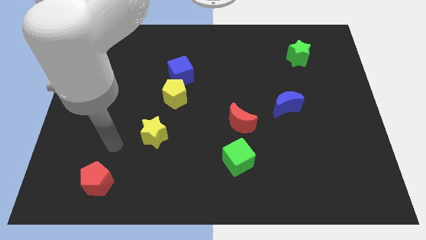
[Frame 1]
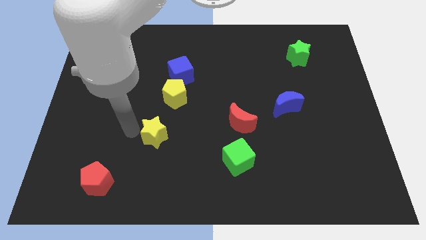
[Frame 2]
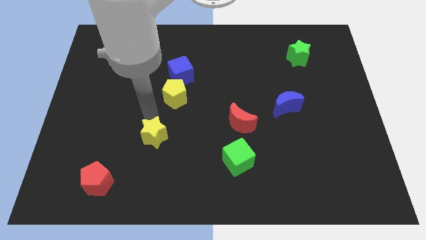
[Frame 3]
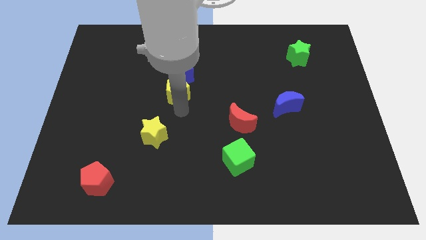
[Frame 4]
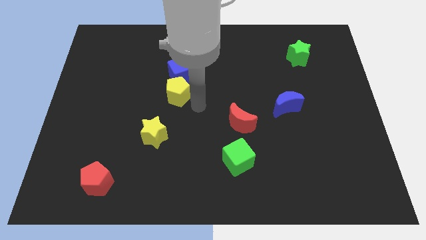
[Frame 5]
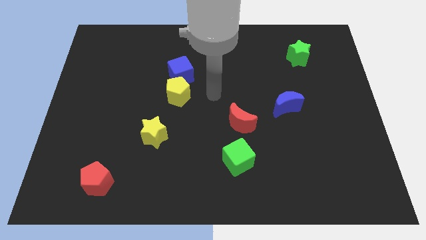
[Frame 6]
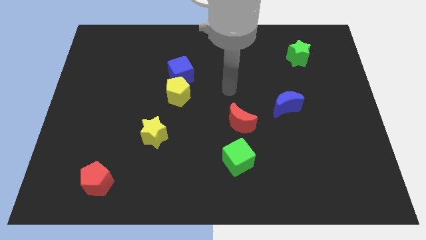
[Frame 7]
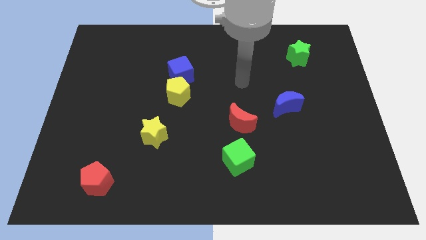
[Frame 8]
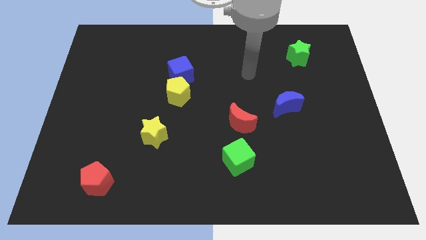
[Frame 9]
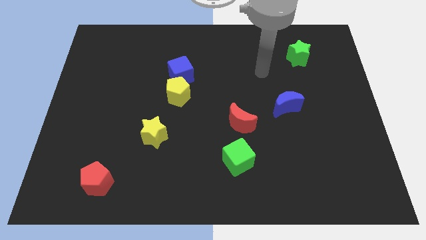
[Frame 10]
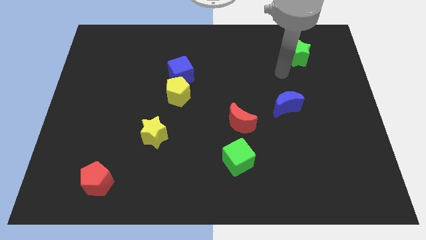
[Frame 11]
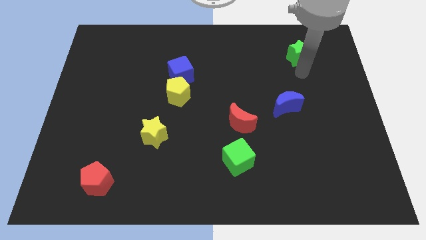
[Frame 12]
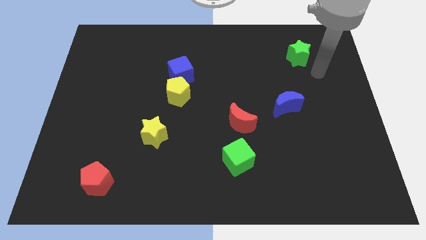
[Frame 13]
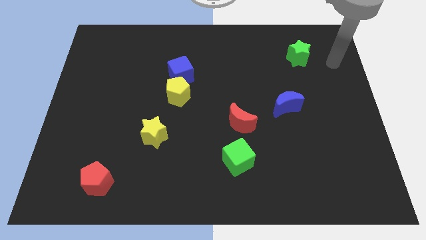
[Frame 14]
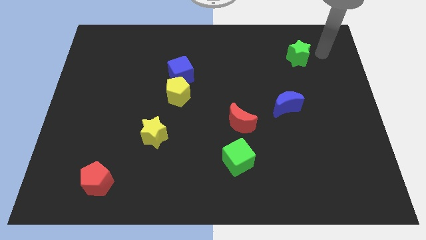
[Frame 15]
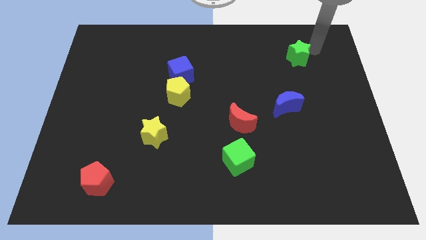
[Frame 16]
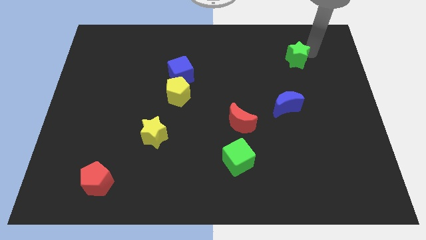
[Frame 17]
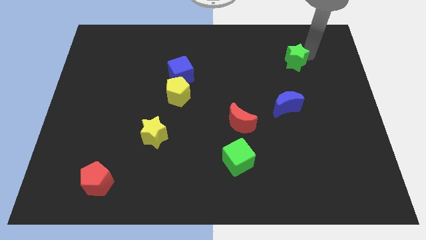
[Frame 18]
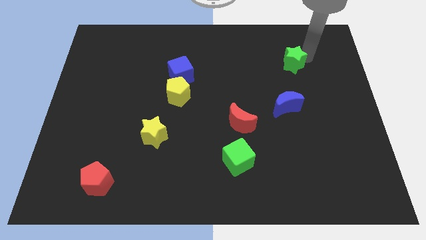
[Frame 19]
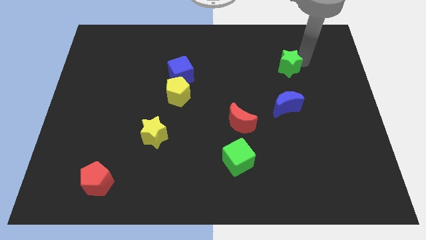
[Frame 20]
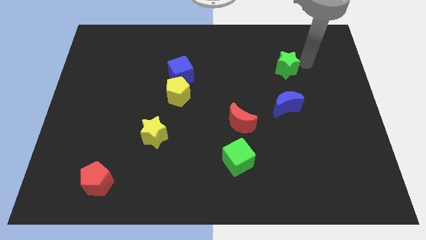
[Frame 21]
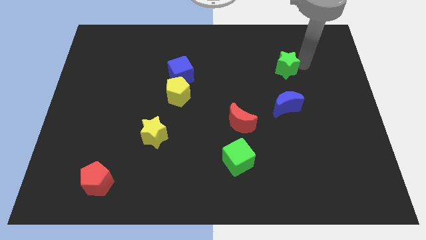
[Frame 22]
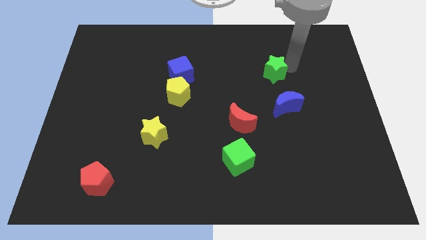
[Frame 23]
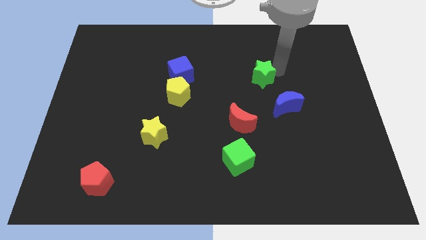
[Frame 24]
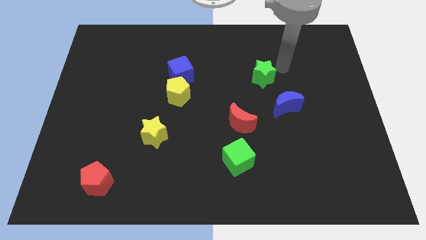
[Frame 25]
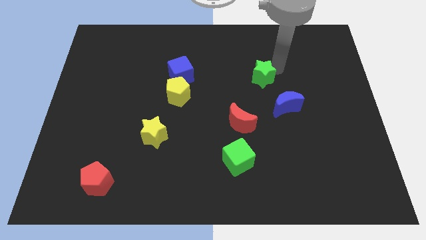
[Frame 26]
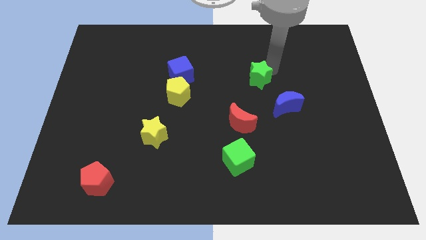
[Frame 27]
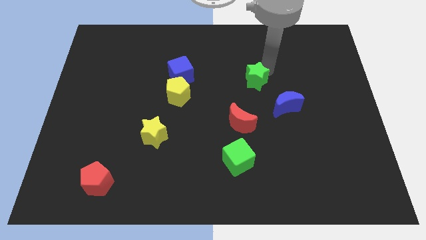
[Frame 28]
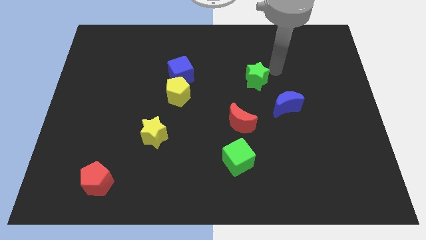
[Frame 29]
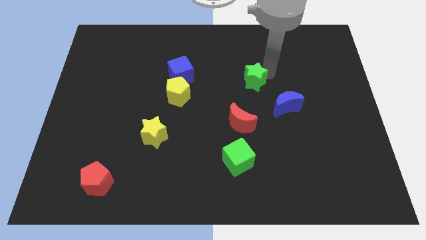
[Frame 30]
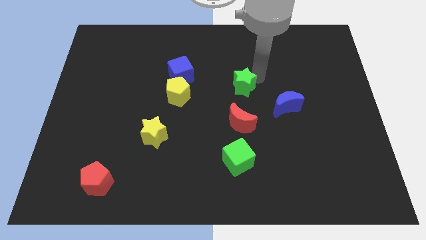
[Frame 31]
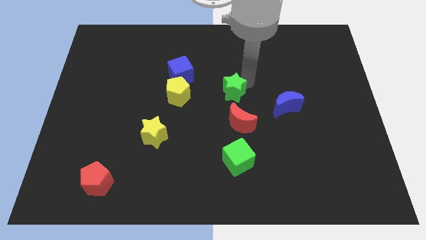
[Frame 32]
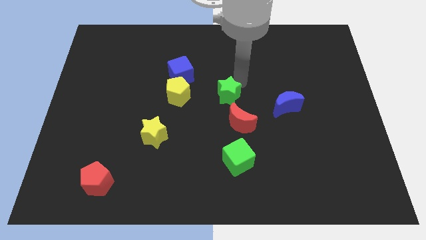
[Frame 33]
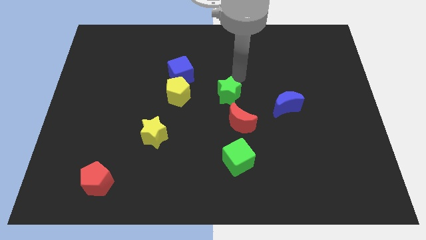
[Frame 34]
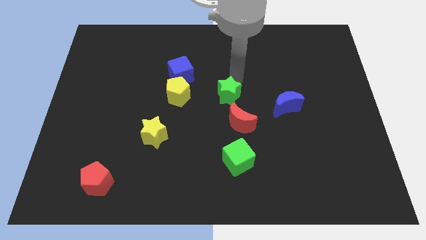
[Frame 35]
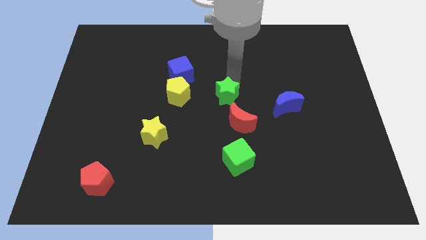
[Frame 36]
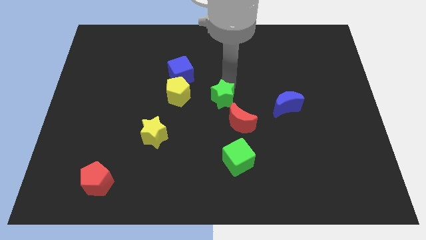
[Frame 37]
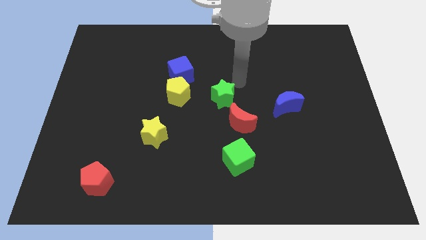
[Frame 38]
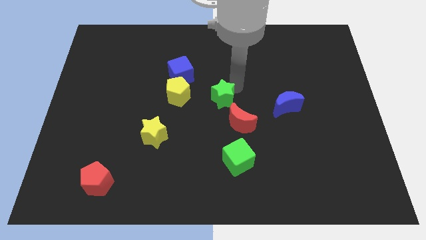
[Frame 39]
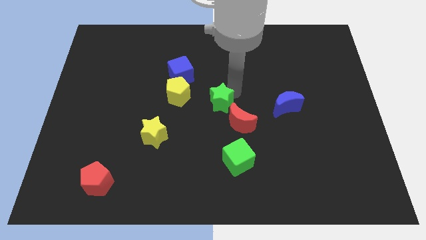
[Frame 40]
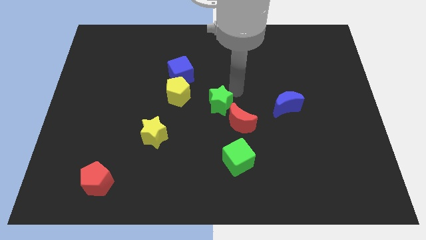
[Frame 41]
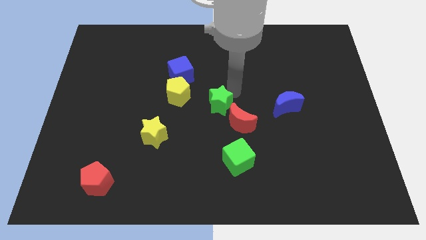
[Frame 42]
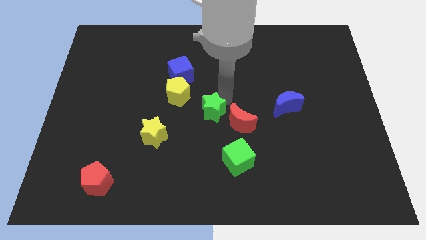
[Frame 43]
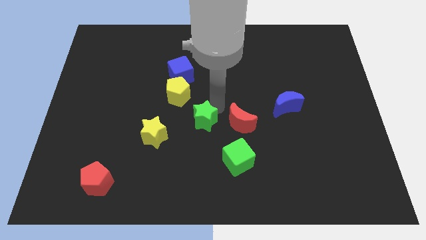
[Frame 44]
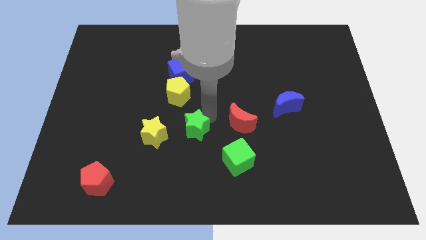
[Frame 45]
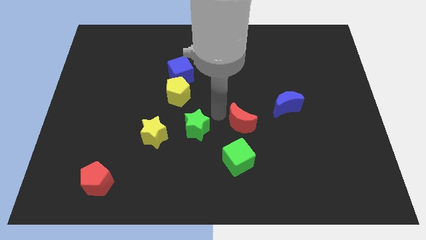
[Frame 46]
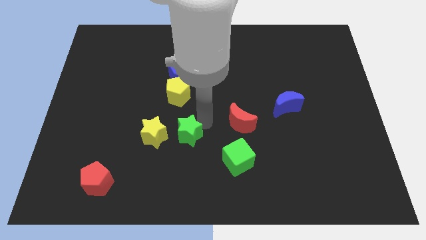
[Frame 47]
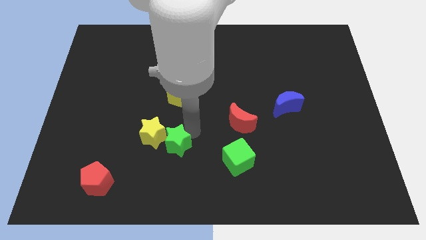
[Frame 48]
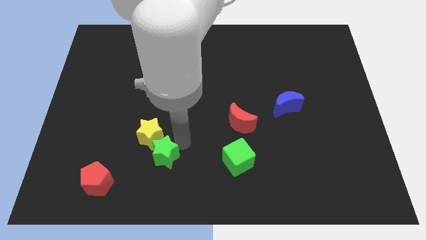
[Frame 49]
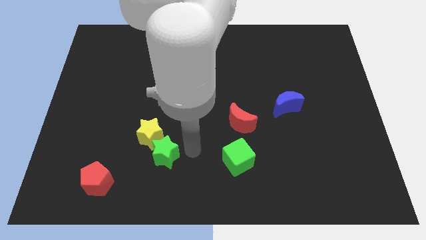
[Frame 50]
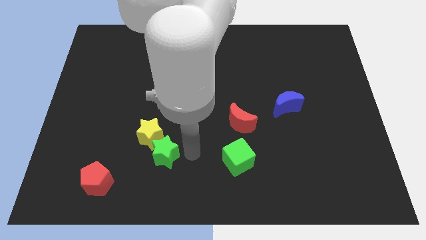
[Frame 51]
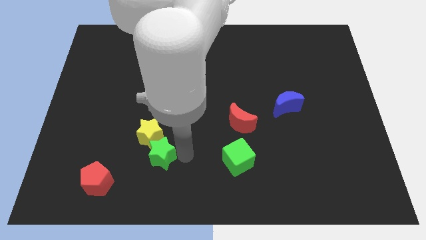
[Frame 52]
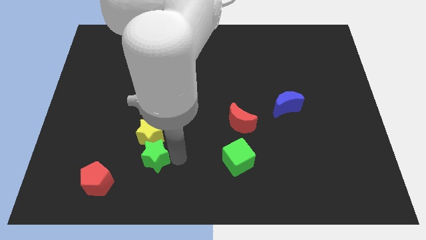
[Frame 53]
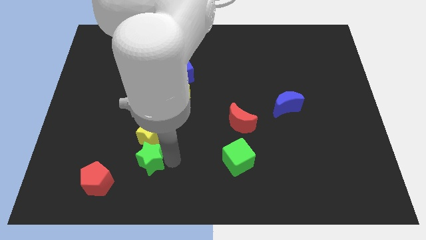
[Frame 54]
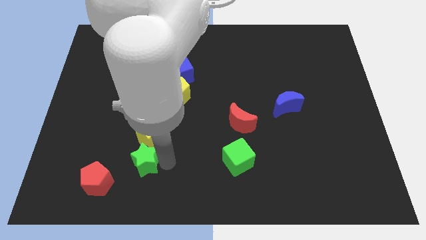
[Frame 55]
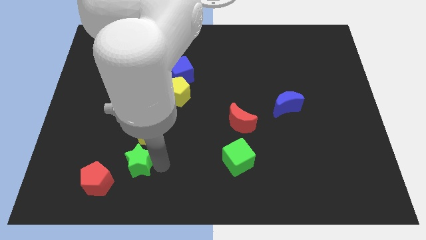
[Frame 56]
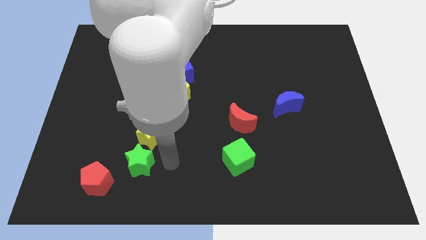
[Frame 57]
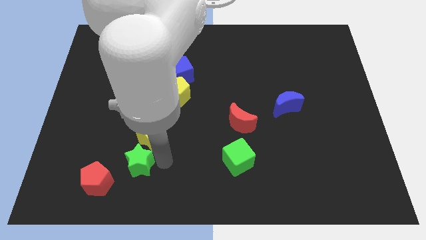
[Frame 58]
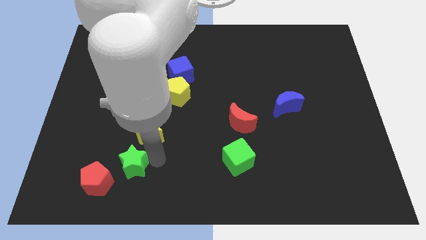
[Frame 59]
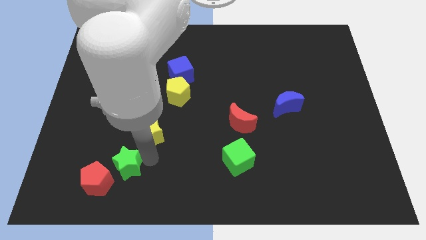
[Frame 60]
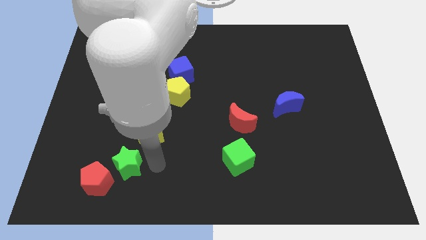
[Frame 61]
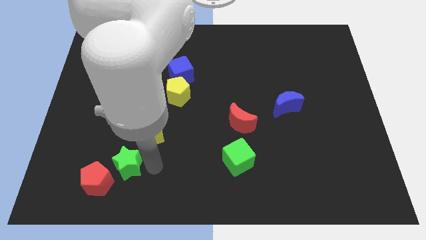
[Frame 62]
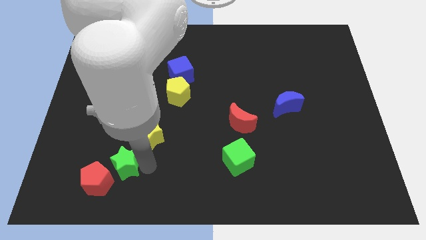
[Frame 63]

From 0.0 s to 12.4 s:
move the green star next to the red pentagon
